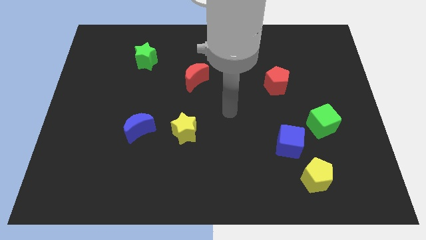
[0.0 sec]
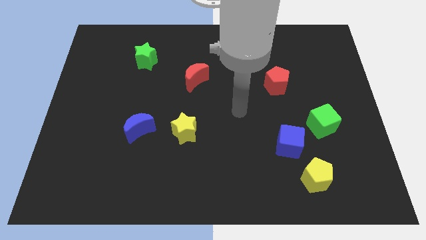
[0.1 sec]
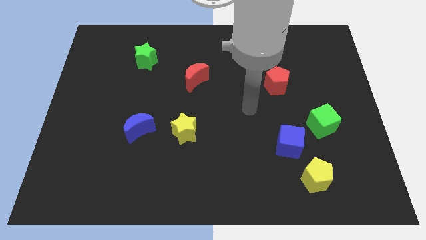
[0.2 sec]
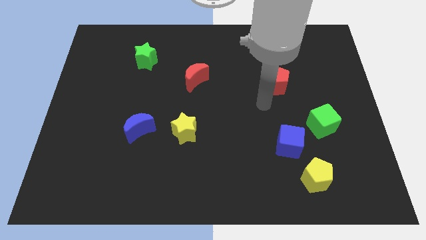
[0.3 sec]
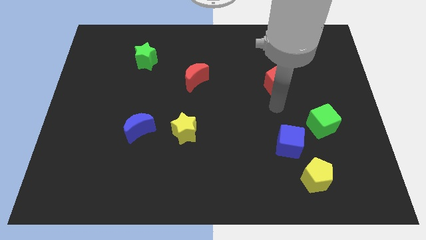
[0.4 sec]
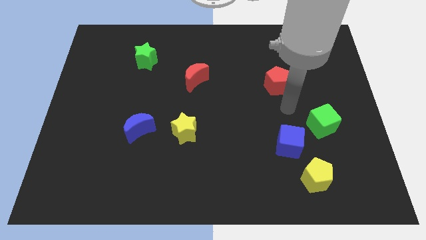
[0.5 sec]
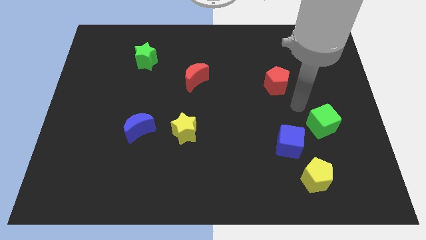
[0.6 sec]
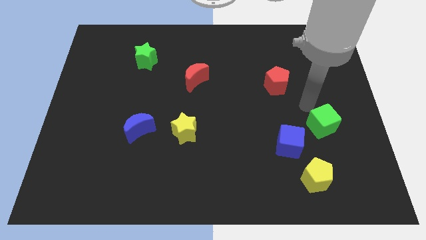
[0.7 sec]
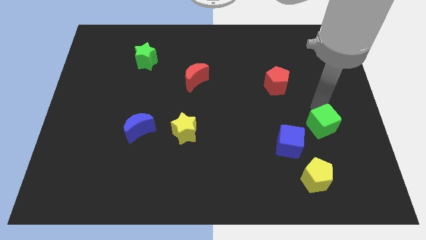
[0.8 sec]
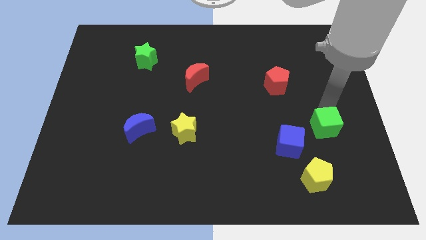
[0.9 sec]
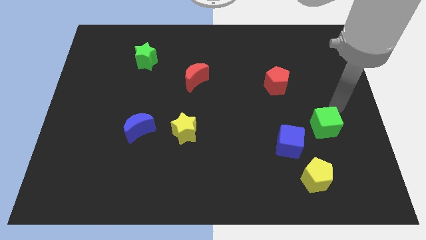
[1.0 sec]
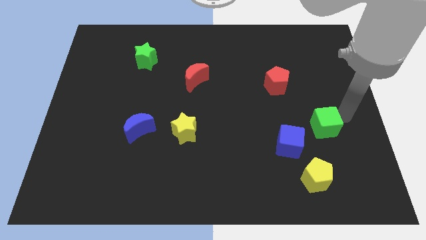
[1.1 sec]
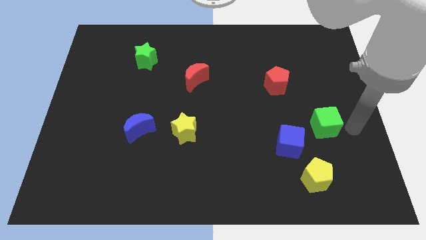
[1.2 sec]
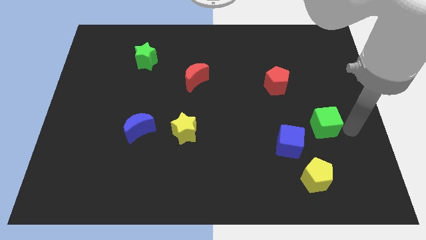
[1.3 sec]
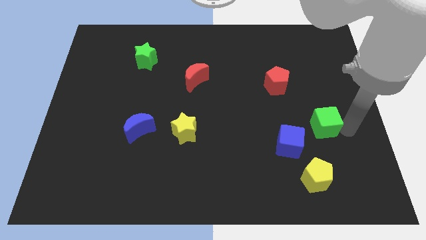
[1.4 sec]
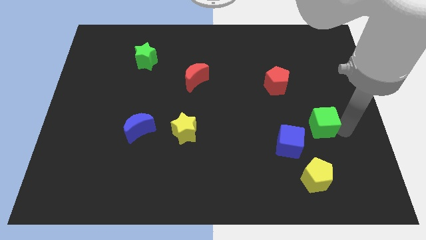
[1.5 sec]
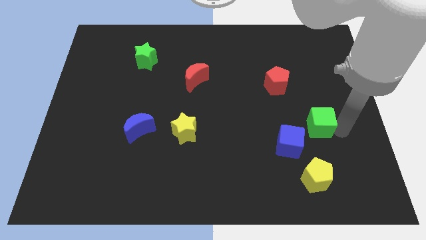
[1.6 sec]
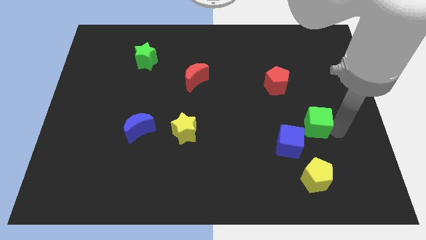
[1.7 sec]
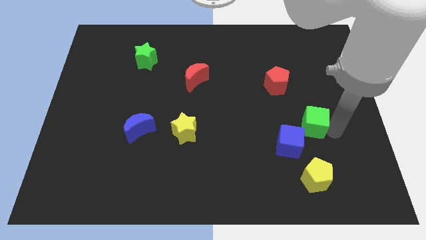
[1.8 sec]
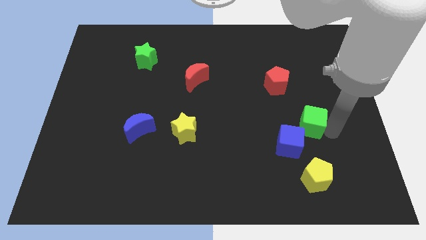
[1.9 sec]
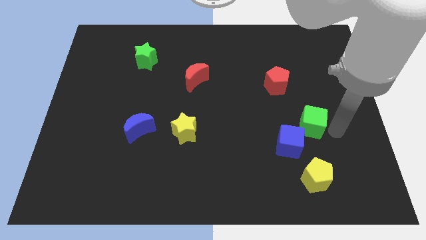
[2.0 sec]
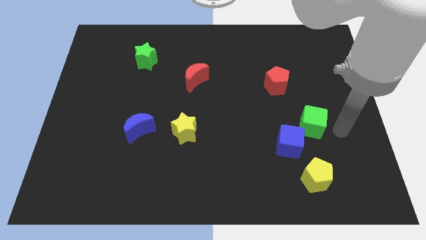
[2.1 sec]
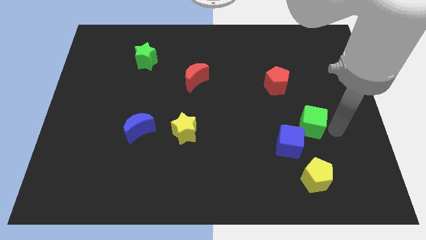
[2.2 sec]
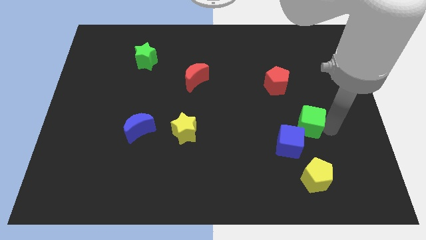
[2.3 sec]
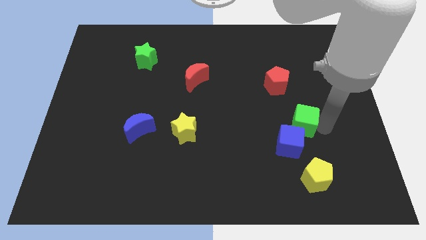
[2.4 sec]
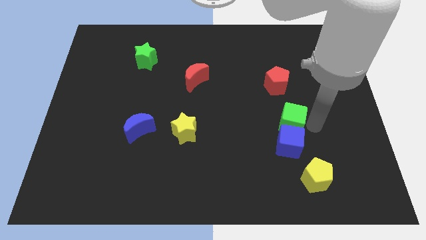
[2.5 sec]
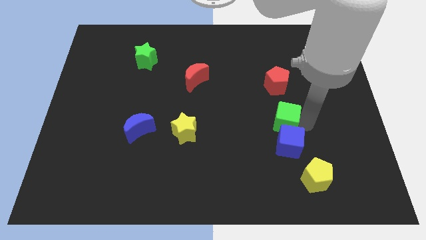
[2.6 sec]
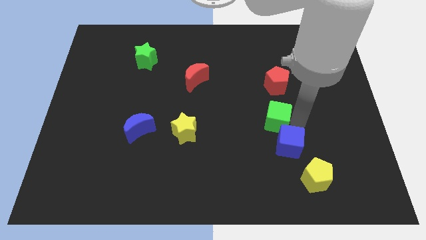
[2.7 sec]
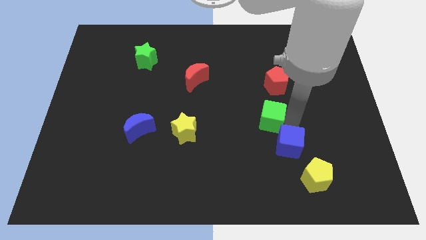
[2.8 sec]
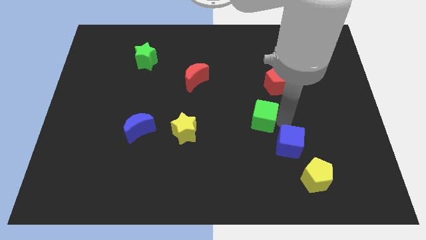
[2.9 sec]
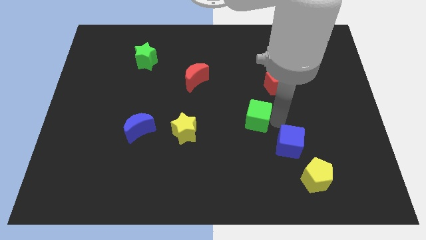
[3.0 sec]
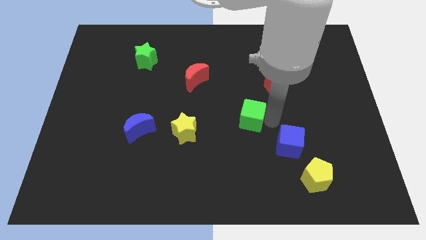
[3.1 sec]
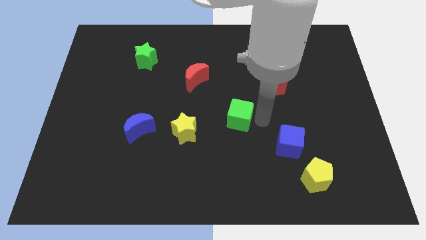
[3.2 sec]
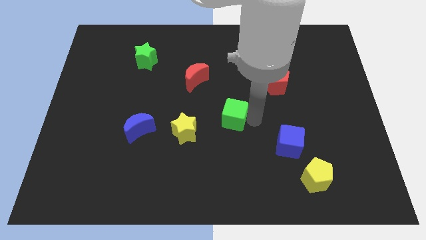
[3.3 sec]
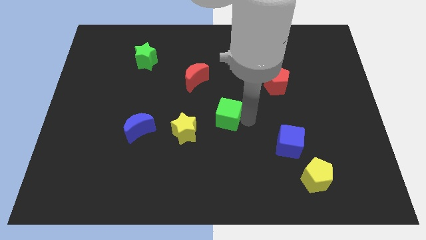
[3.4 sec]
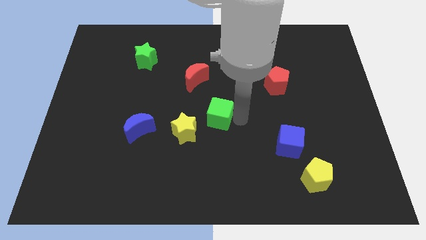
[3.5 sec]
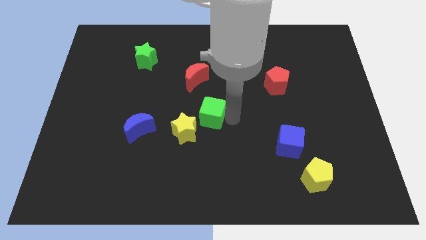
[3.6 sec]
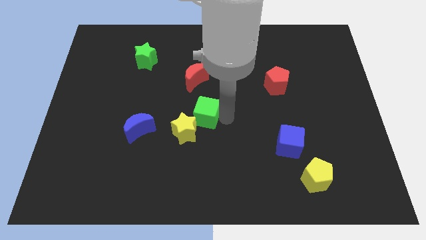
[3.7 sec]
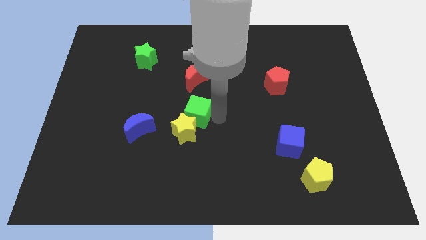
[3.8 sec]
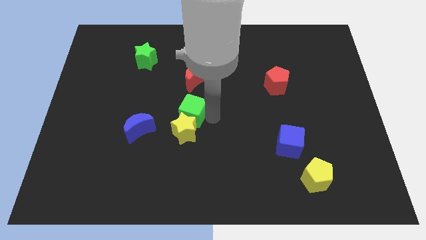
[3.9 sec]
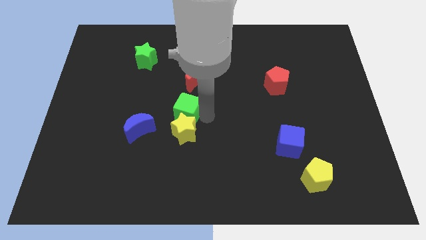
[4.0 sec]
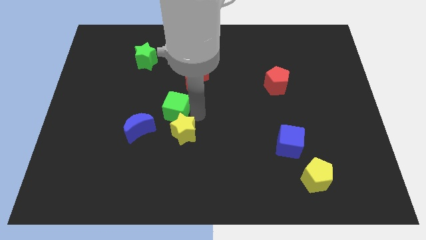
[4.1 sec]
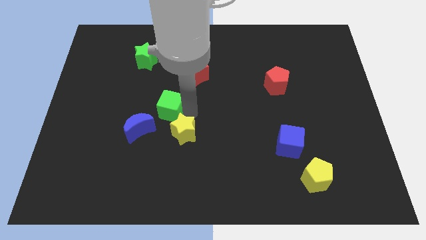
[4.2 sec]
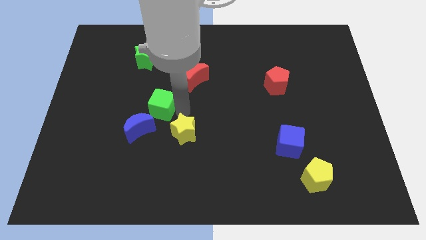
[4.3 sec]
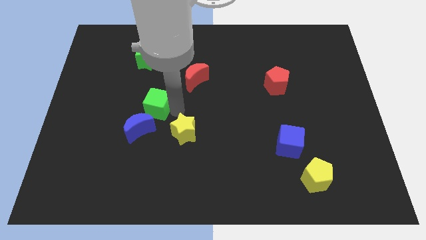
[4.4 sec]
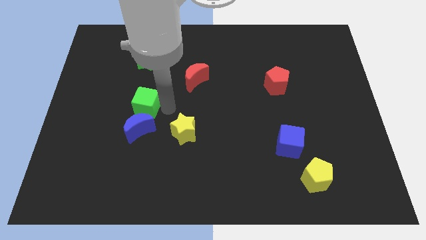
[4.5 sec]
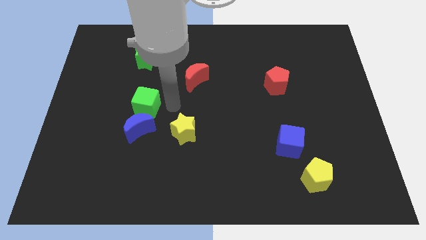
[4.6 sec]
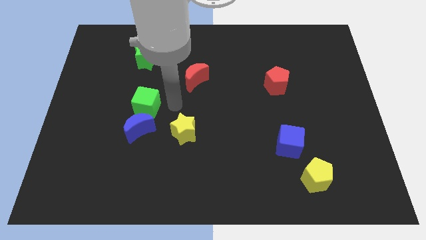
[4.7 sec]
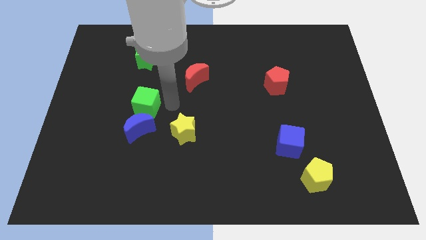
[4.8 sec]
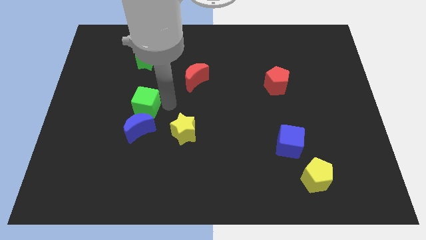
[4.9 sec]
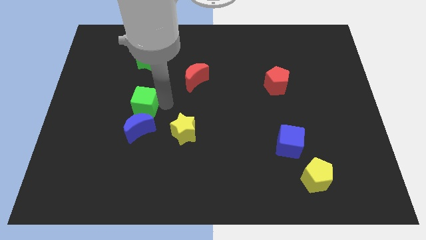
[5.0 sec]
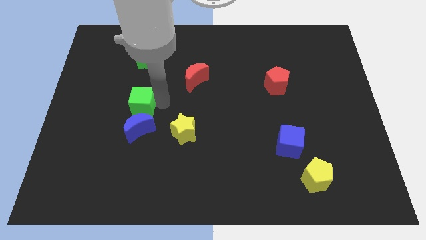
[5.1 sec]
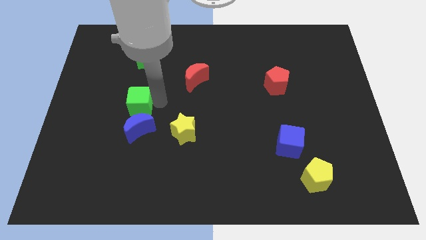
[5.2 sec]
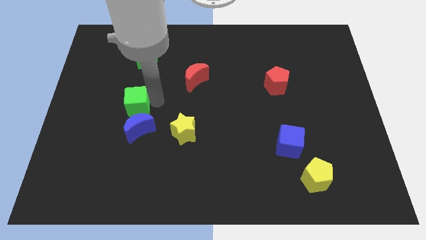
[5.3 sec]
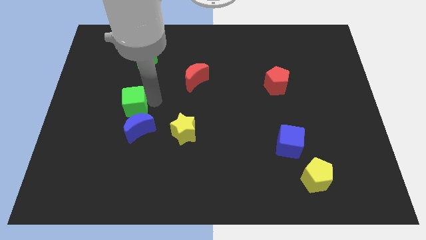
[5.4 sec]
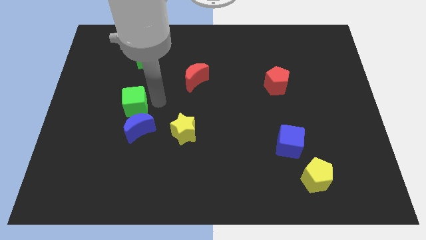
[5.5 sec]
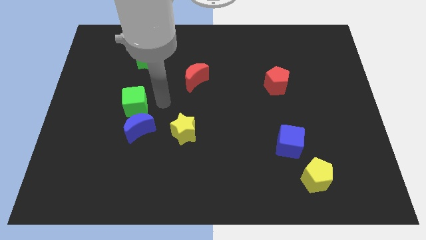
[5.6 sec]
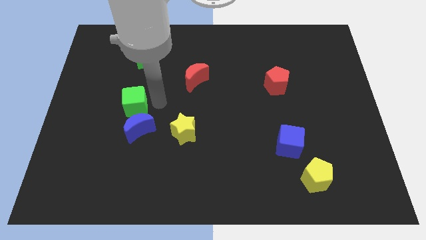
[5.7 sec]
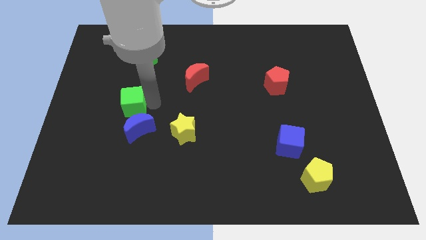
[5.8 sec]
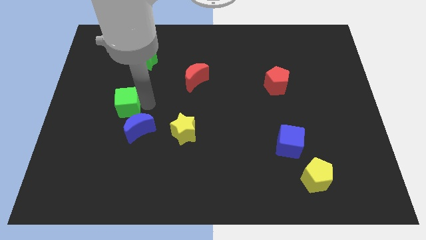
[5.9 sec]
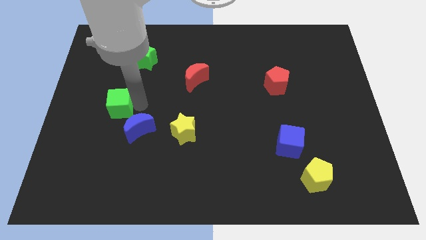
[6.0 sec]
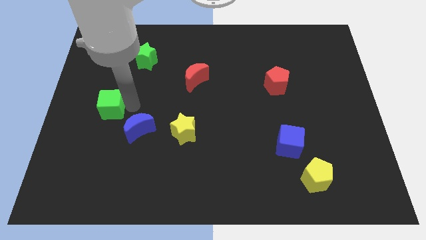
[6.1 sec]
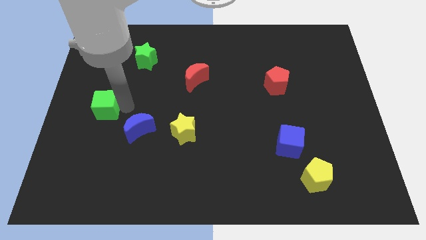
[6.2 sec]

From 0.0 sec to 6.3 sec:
move the green cube to the left side

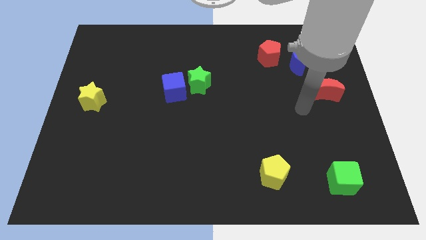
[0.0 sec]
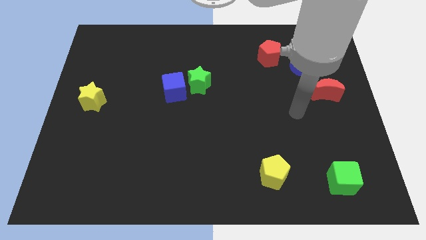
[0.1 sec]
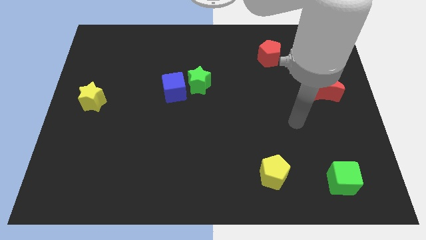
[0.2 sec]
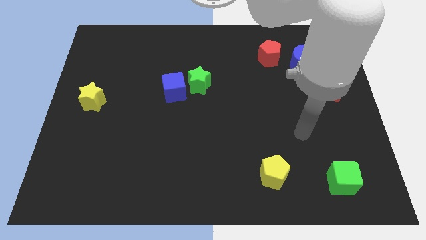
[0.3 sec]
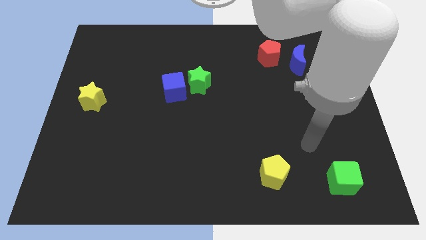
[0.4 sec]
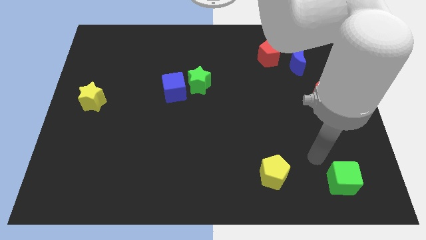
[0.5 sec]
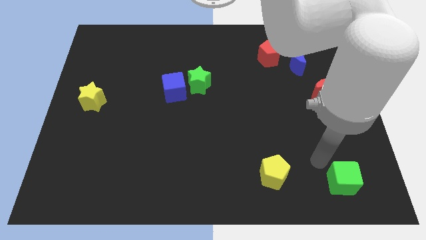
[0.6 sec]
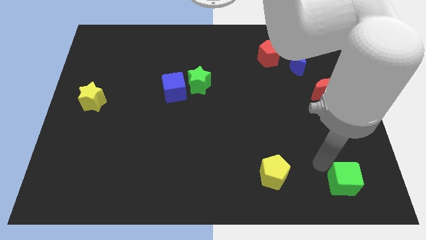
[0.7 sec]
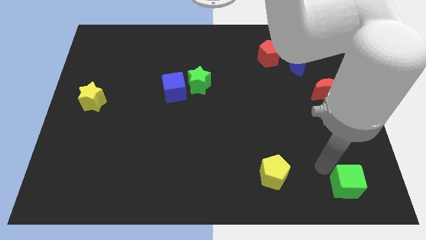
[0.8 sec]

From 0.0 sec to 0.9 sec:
push the green cube to the bottom right corner
